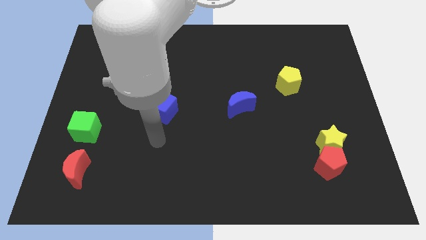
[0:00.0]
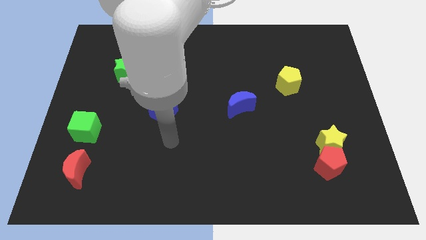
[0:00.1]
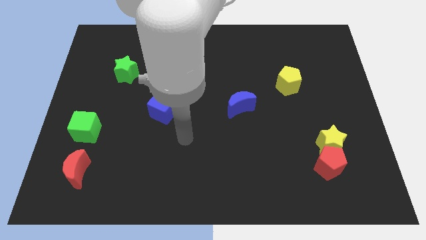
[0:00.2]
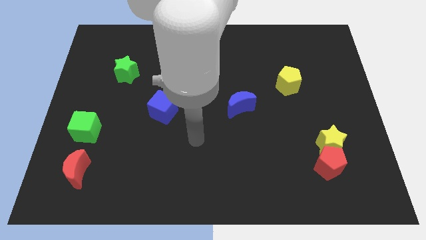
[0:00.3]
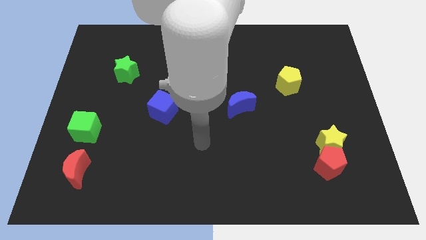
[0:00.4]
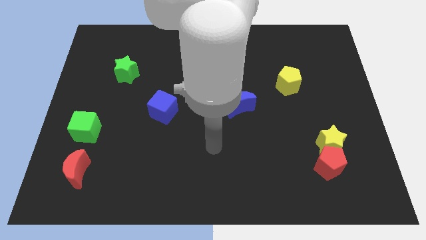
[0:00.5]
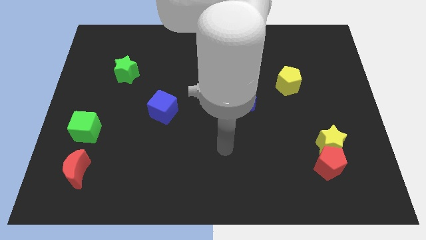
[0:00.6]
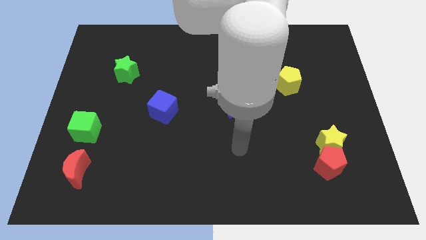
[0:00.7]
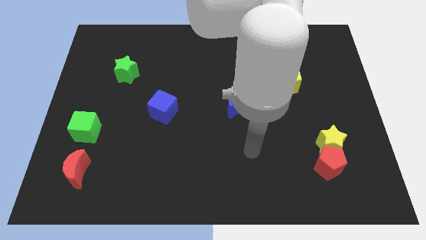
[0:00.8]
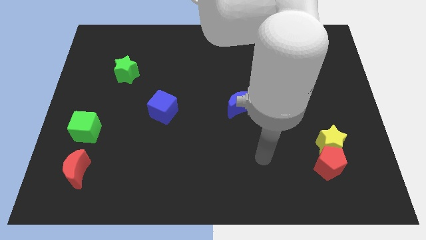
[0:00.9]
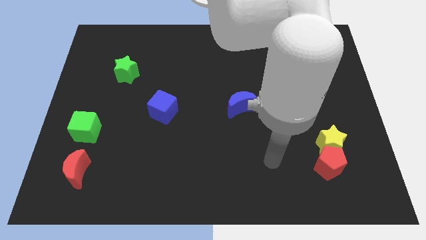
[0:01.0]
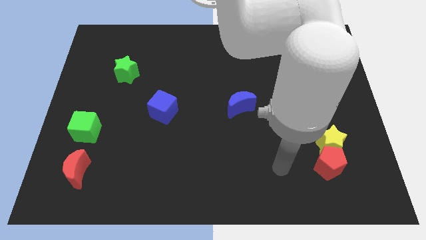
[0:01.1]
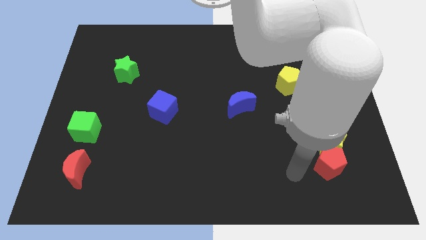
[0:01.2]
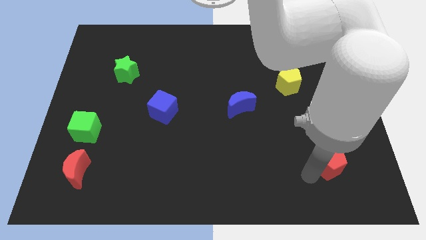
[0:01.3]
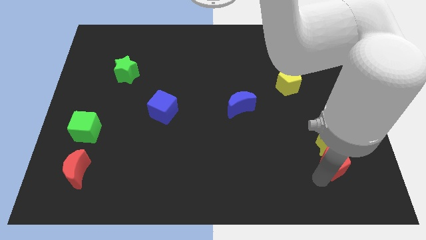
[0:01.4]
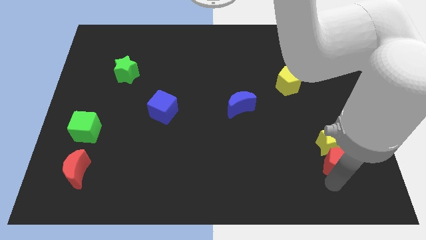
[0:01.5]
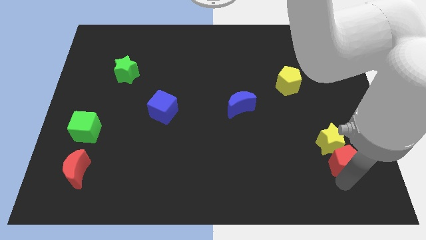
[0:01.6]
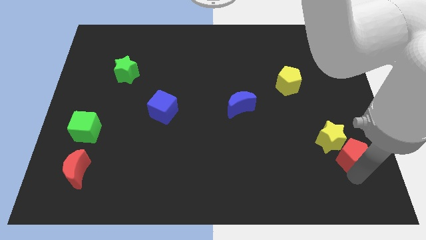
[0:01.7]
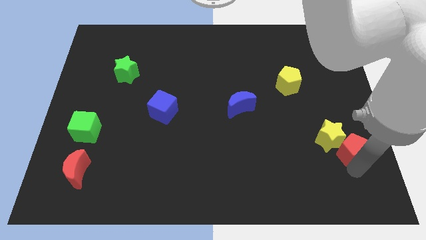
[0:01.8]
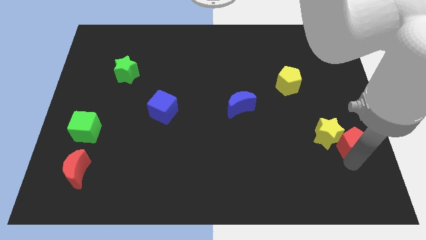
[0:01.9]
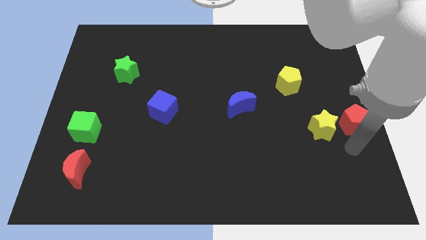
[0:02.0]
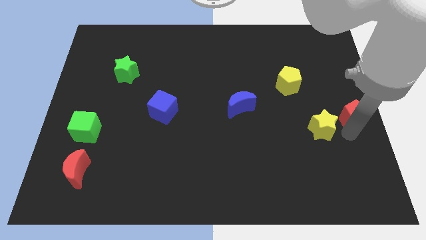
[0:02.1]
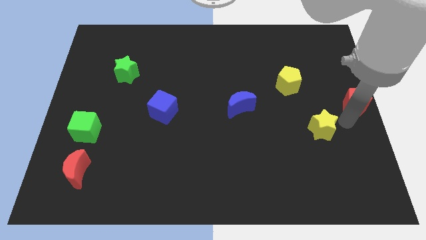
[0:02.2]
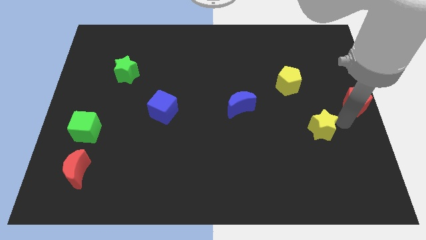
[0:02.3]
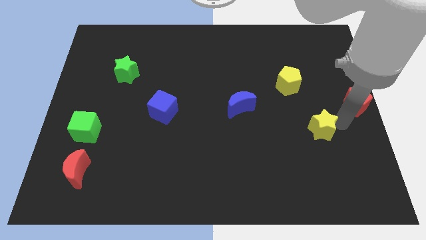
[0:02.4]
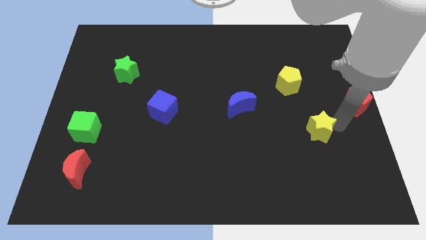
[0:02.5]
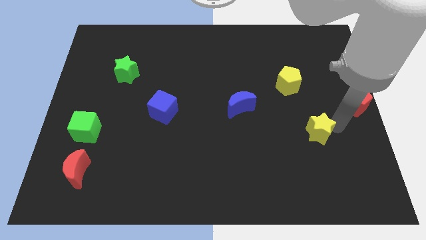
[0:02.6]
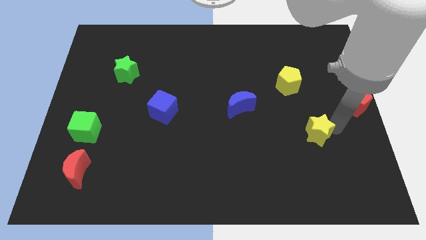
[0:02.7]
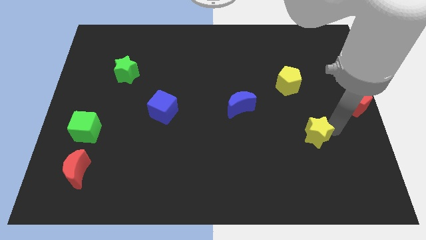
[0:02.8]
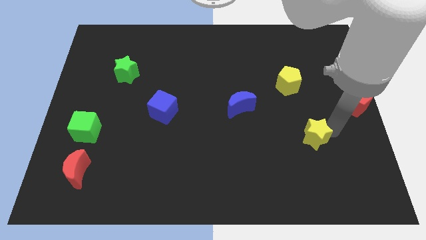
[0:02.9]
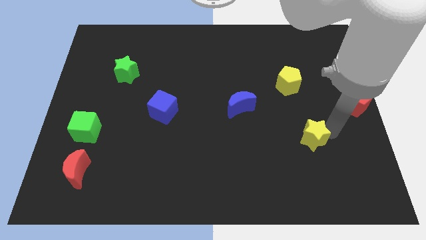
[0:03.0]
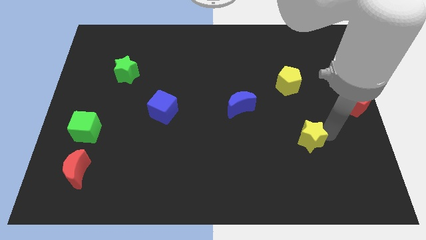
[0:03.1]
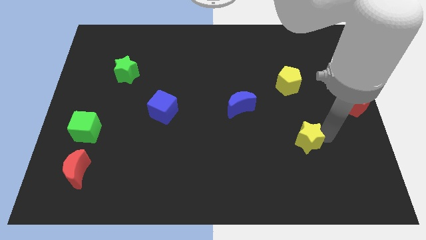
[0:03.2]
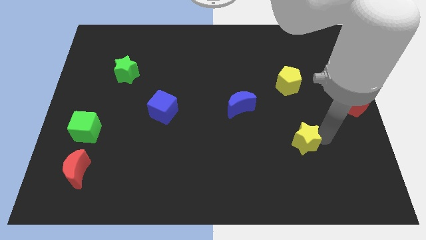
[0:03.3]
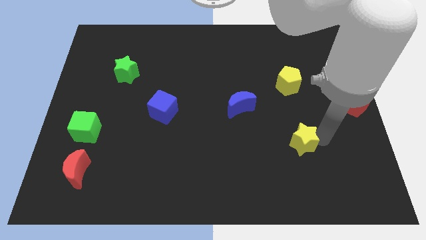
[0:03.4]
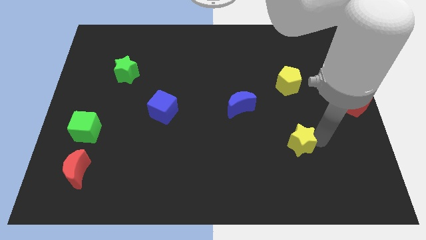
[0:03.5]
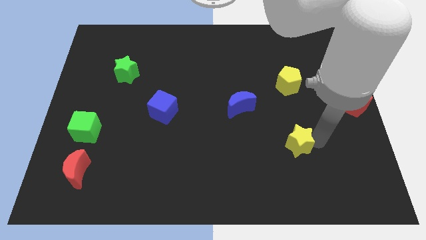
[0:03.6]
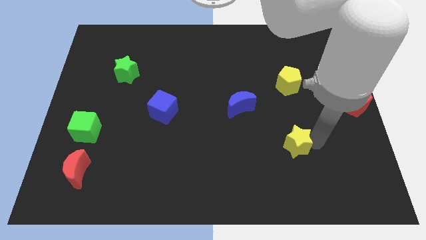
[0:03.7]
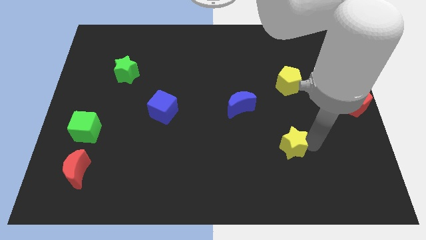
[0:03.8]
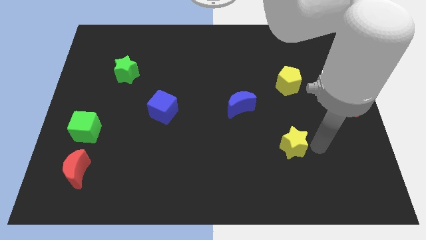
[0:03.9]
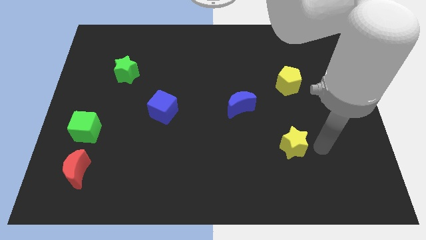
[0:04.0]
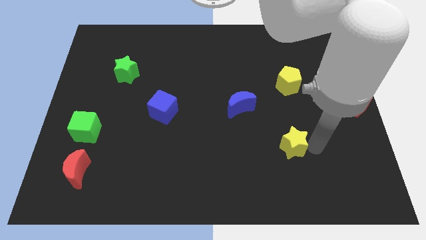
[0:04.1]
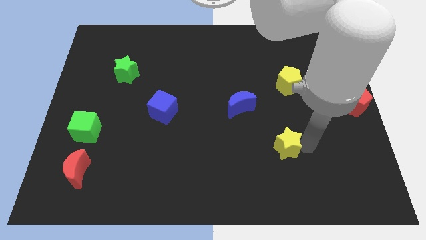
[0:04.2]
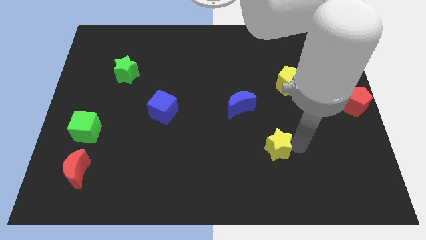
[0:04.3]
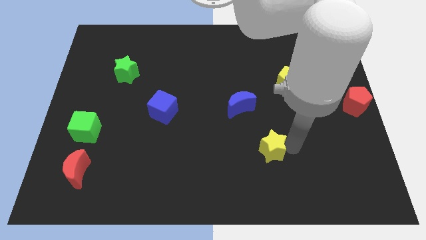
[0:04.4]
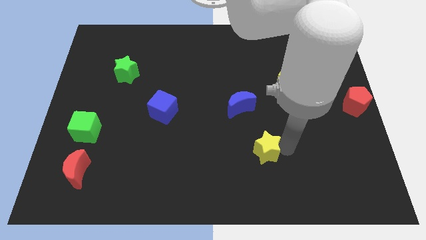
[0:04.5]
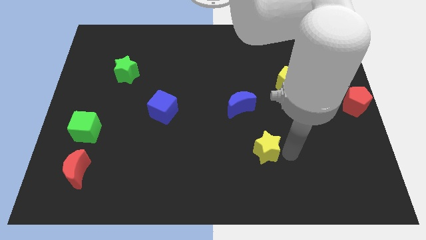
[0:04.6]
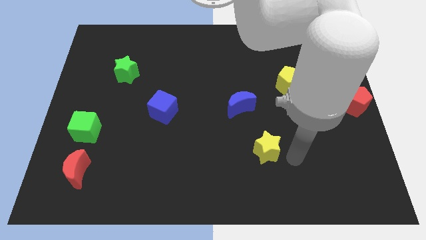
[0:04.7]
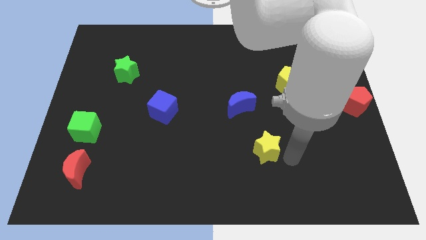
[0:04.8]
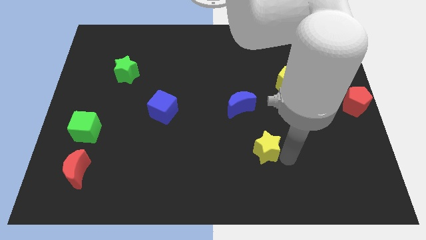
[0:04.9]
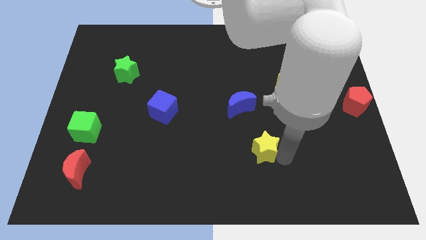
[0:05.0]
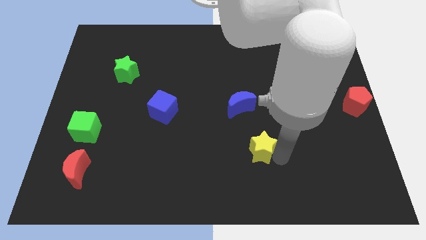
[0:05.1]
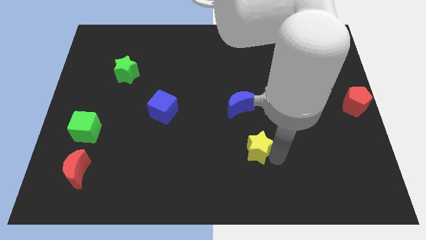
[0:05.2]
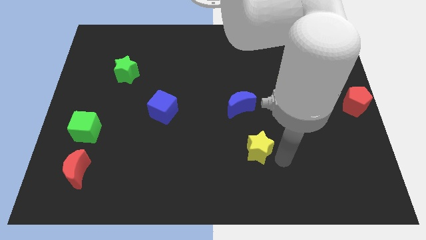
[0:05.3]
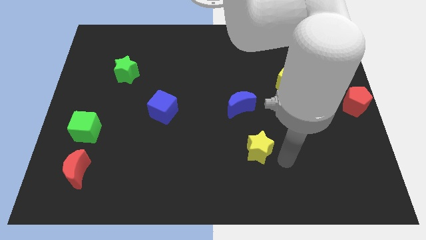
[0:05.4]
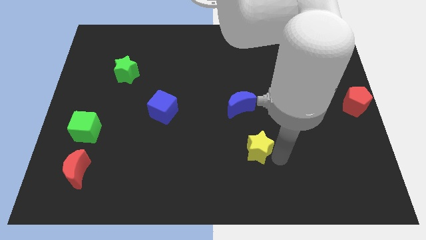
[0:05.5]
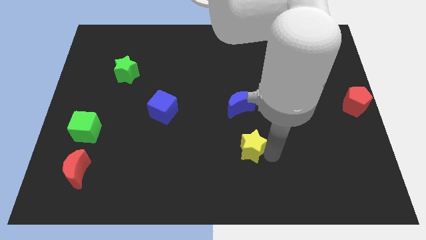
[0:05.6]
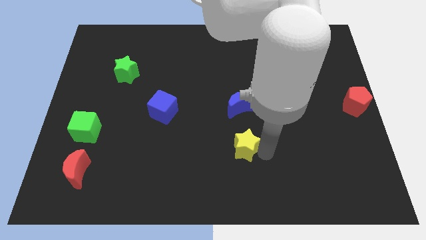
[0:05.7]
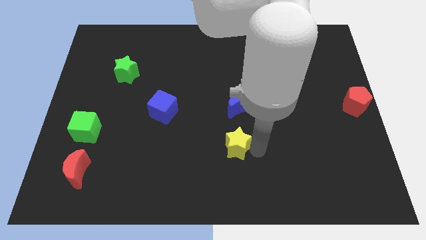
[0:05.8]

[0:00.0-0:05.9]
move the yellow star left

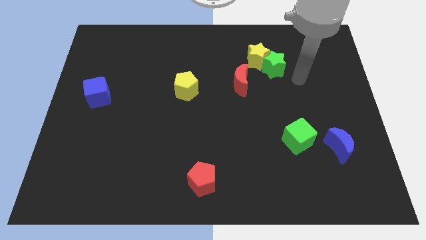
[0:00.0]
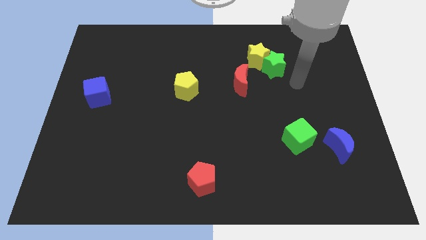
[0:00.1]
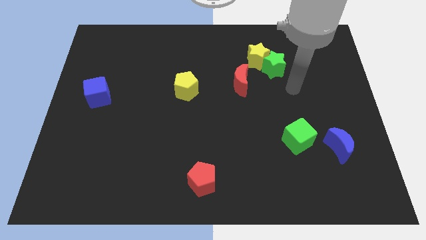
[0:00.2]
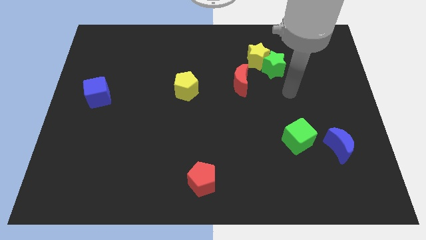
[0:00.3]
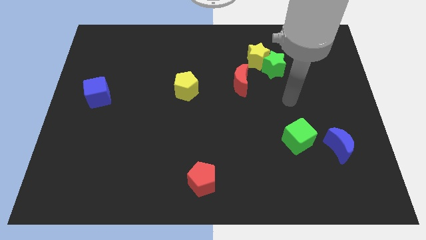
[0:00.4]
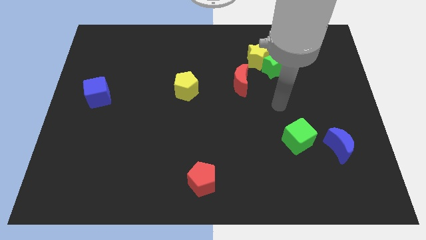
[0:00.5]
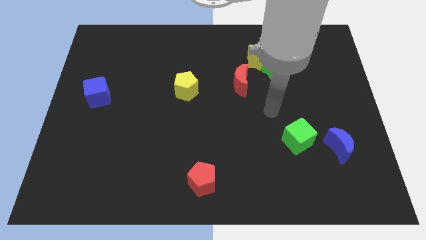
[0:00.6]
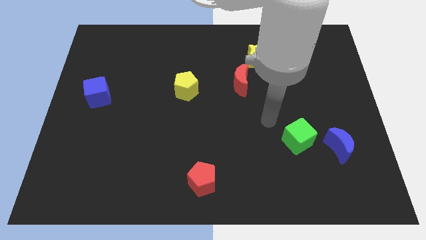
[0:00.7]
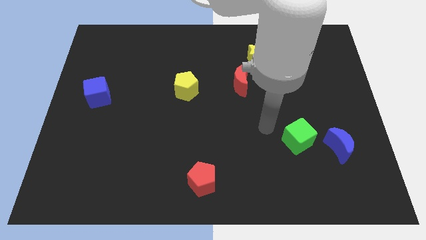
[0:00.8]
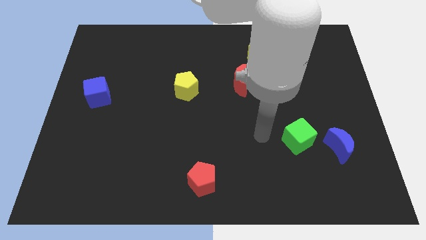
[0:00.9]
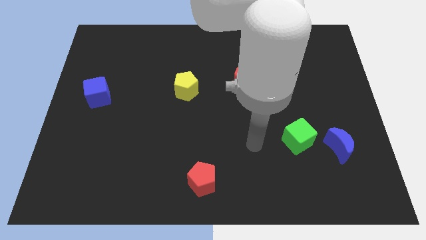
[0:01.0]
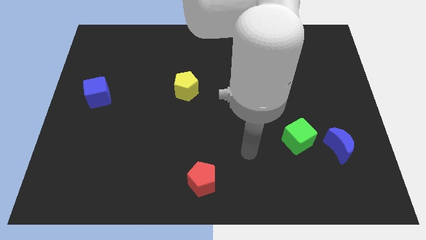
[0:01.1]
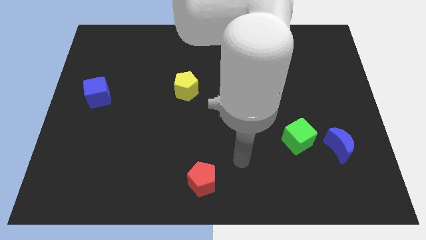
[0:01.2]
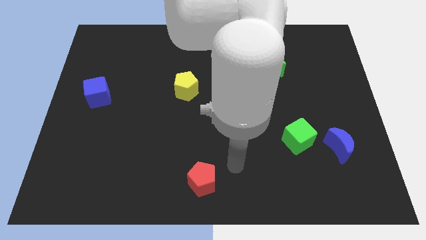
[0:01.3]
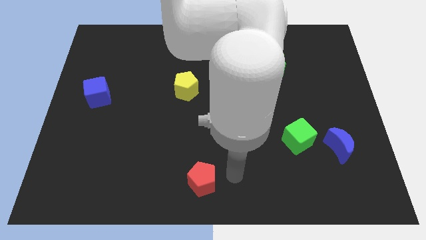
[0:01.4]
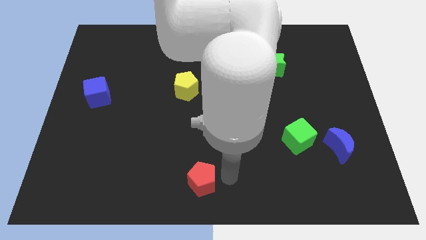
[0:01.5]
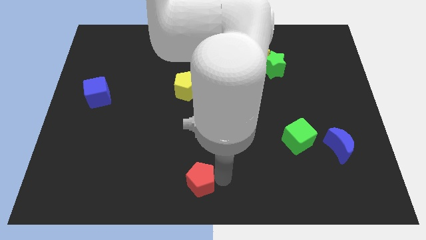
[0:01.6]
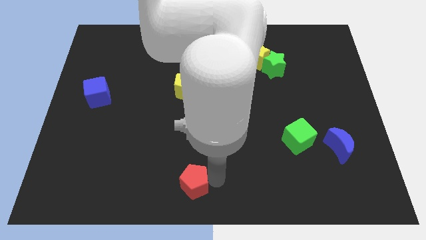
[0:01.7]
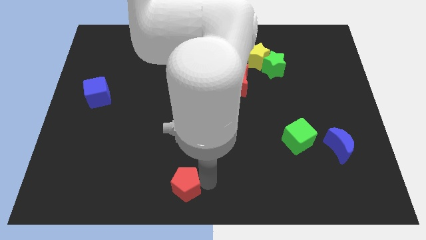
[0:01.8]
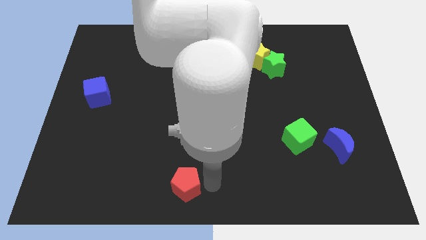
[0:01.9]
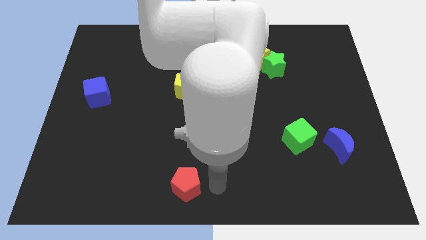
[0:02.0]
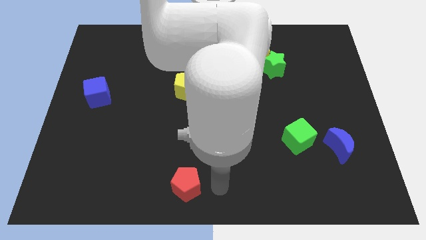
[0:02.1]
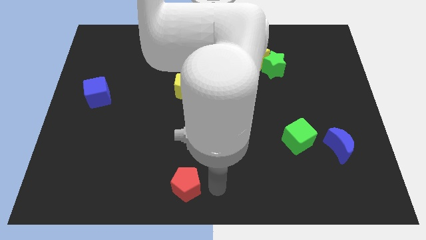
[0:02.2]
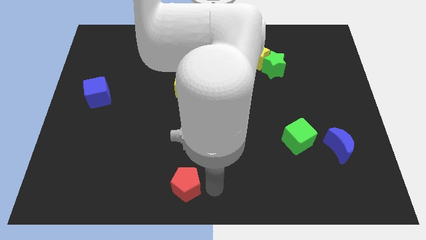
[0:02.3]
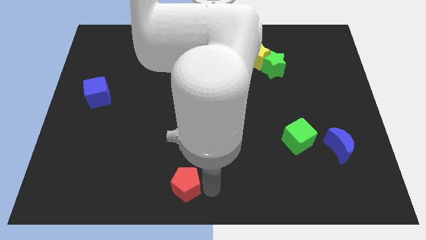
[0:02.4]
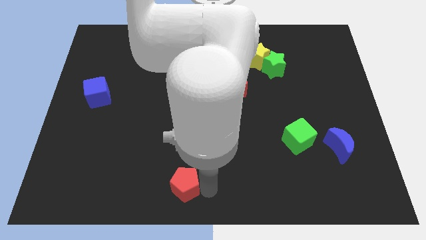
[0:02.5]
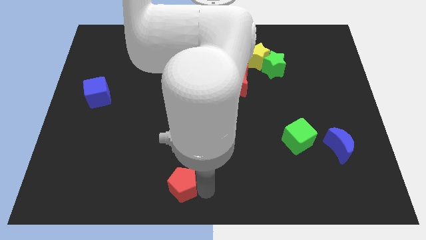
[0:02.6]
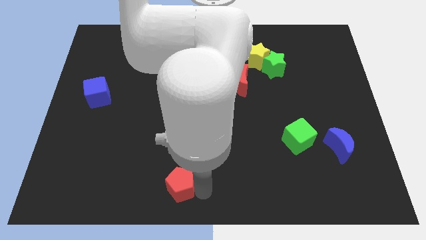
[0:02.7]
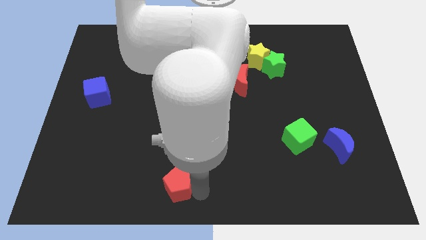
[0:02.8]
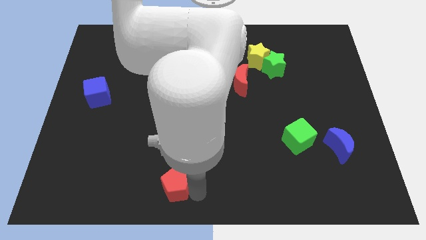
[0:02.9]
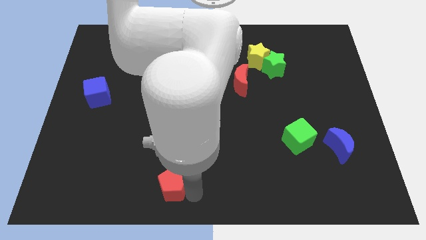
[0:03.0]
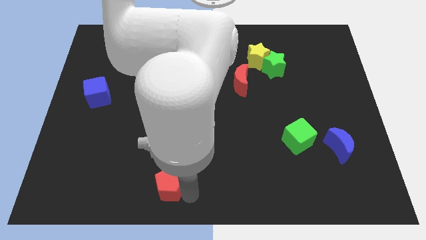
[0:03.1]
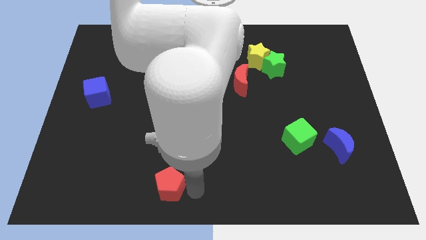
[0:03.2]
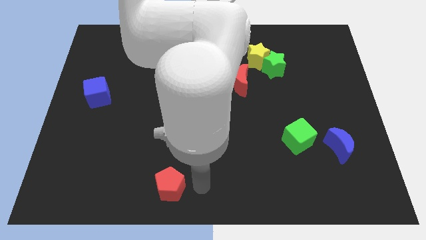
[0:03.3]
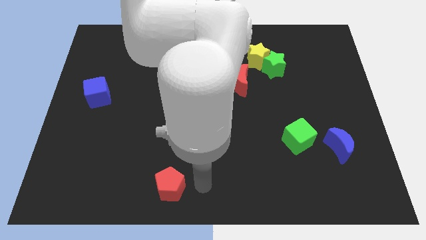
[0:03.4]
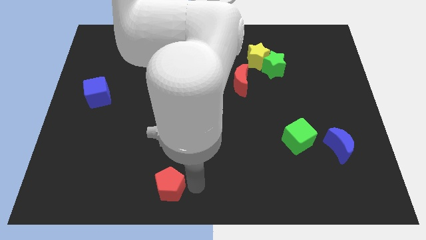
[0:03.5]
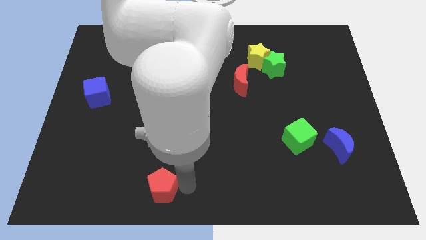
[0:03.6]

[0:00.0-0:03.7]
push the red pentagon left slightly
